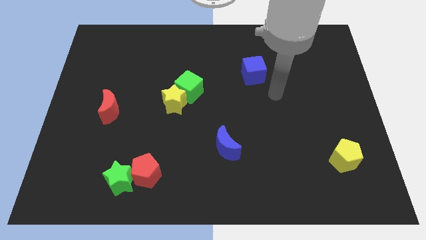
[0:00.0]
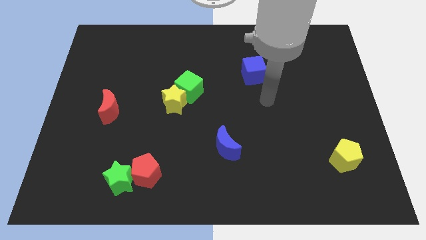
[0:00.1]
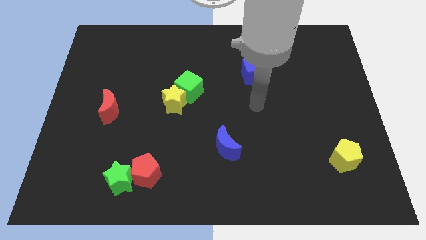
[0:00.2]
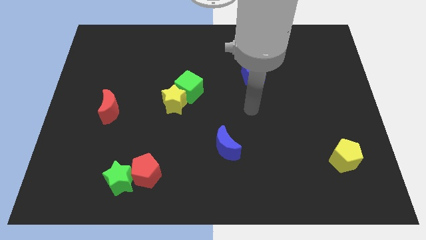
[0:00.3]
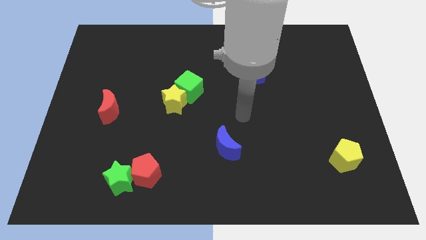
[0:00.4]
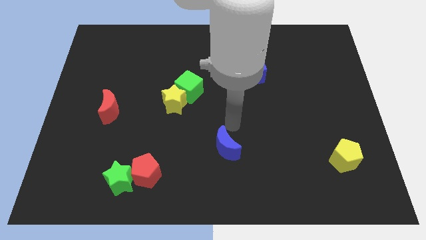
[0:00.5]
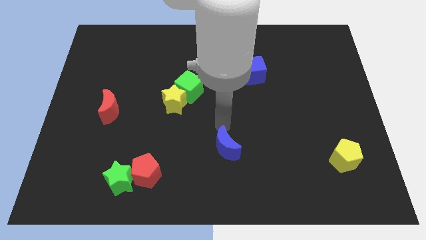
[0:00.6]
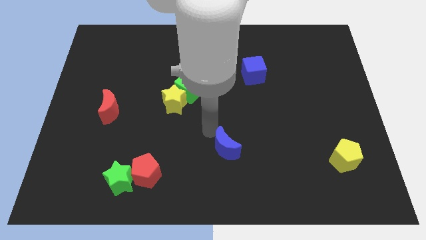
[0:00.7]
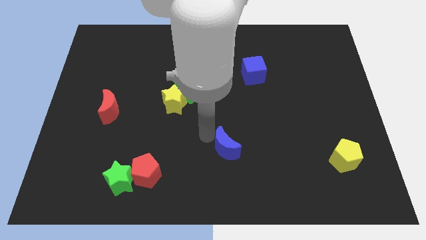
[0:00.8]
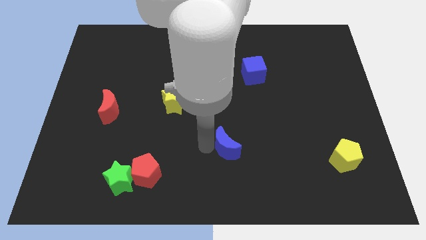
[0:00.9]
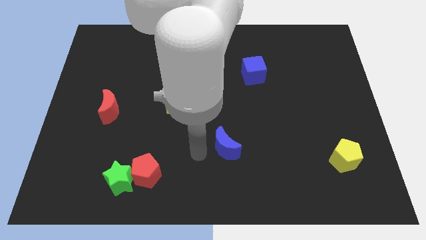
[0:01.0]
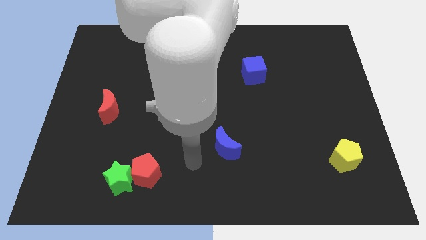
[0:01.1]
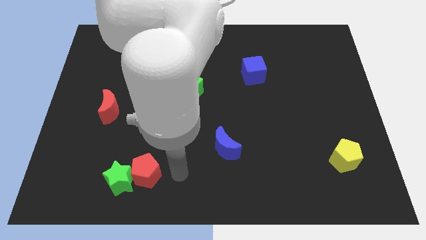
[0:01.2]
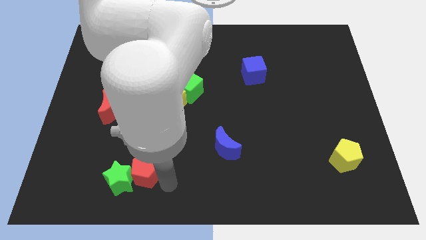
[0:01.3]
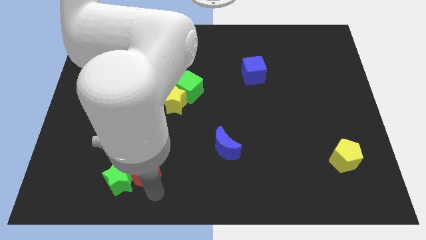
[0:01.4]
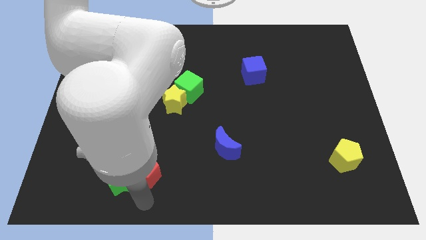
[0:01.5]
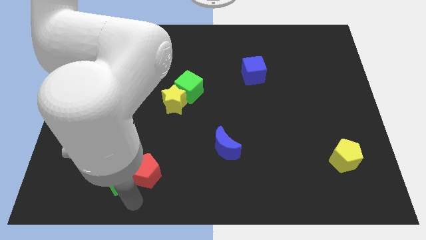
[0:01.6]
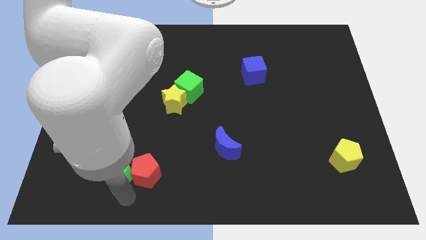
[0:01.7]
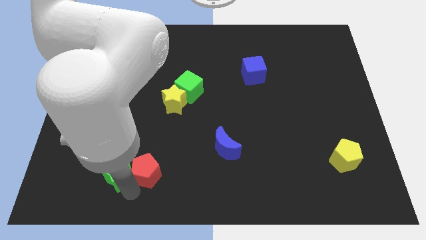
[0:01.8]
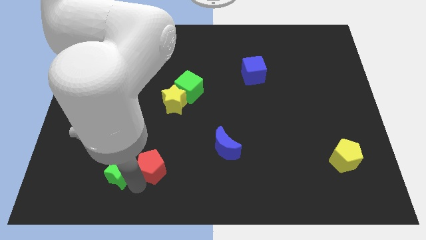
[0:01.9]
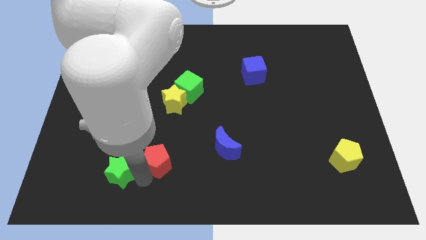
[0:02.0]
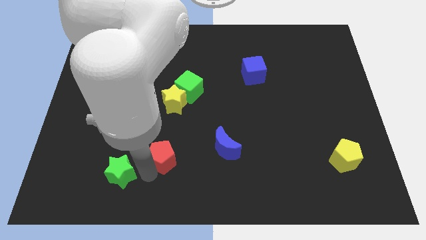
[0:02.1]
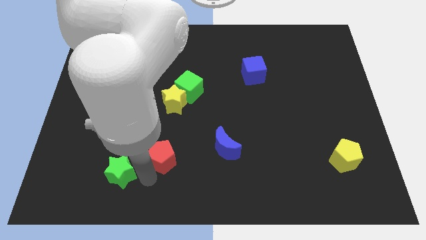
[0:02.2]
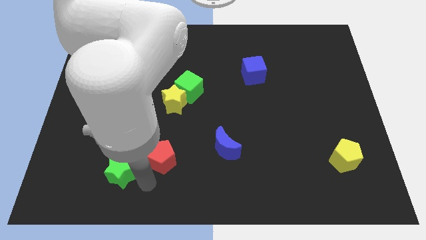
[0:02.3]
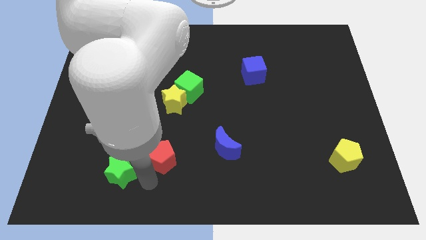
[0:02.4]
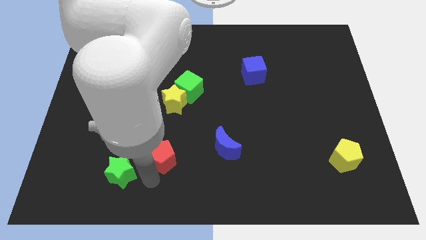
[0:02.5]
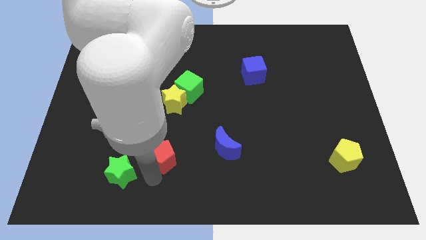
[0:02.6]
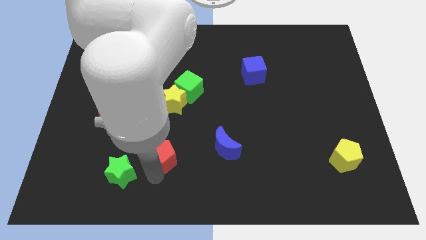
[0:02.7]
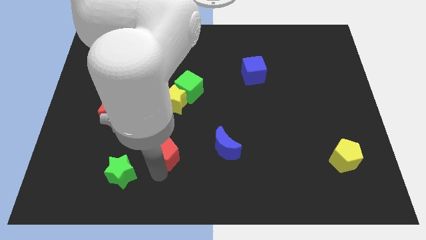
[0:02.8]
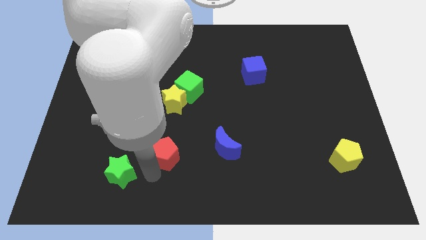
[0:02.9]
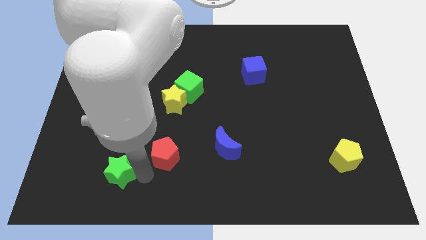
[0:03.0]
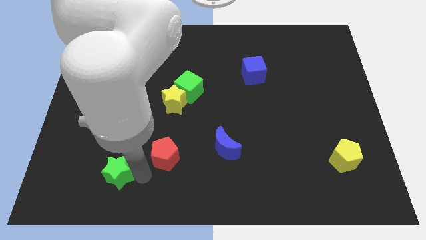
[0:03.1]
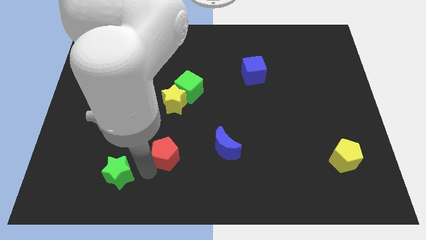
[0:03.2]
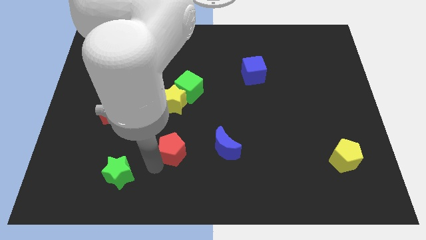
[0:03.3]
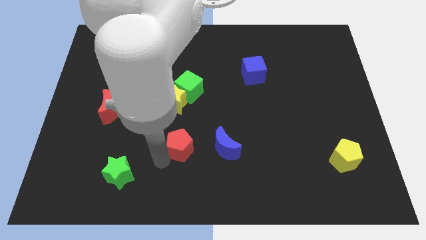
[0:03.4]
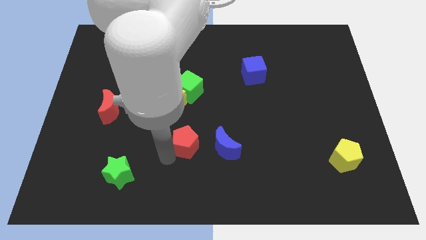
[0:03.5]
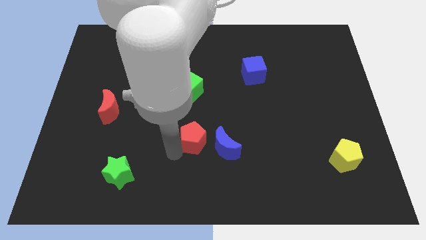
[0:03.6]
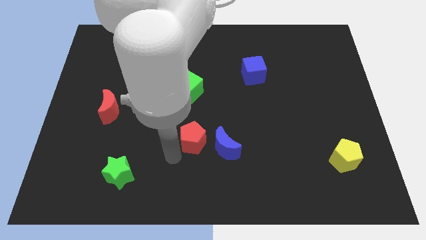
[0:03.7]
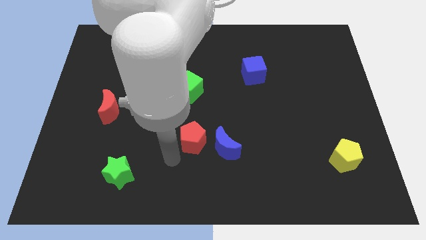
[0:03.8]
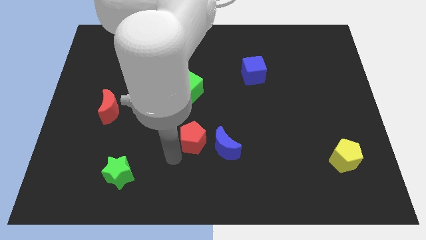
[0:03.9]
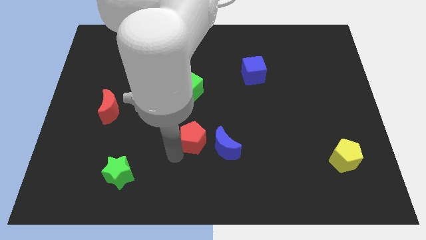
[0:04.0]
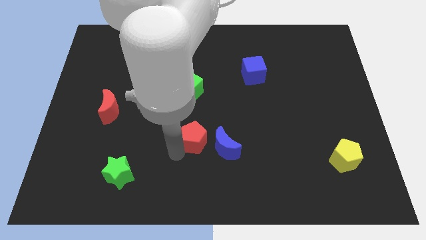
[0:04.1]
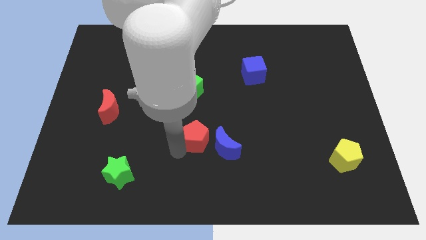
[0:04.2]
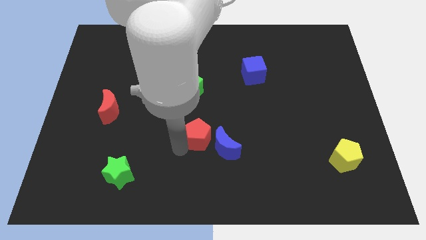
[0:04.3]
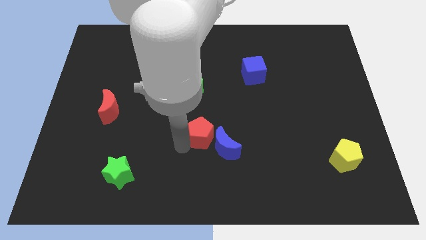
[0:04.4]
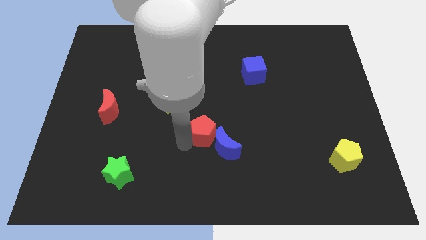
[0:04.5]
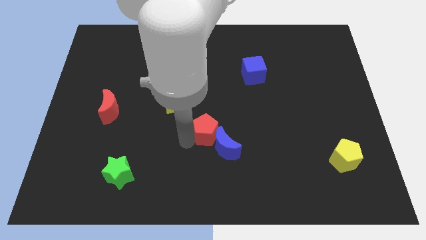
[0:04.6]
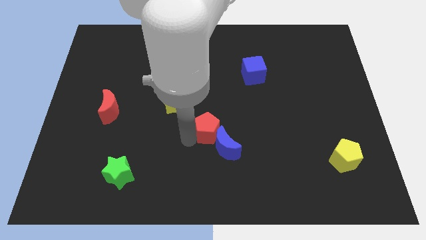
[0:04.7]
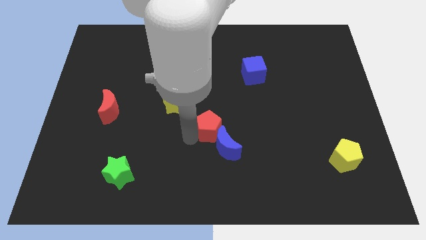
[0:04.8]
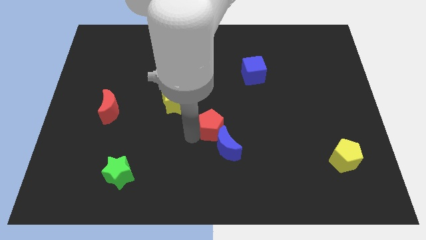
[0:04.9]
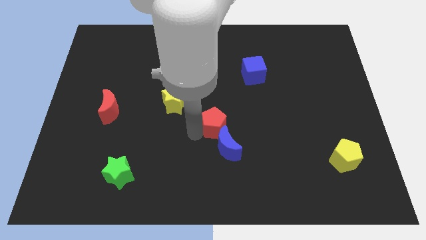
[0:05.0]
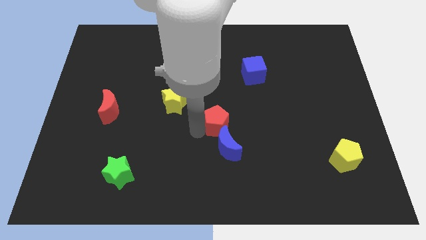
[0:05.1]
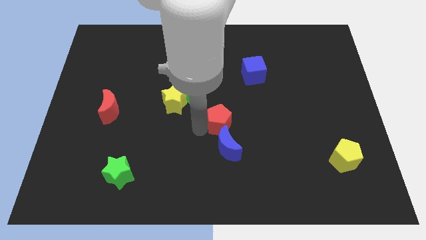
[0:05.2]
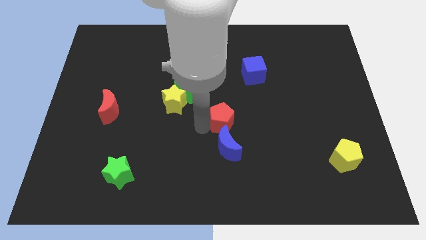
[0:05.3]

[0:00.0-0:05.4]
move the red pentagon upwards and to the right diagonally

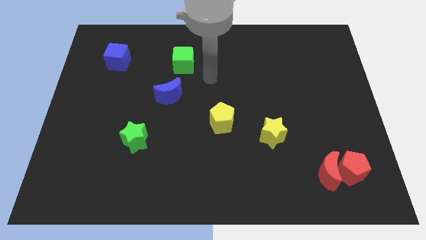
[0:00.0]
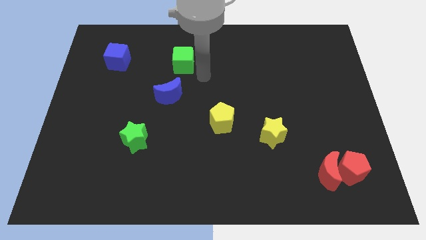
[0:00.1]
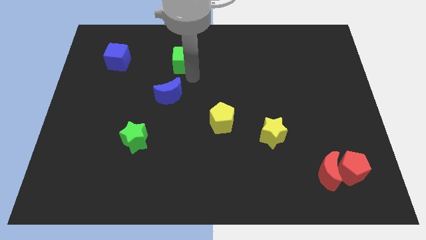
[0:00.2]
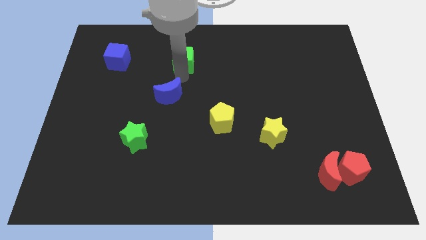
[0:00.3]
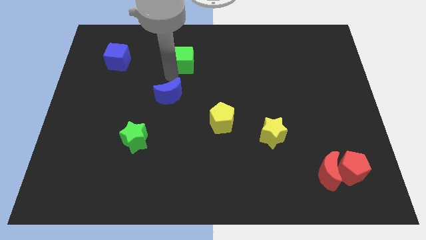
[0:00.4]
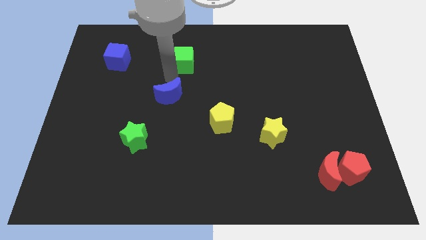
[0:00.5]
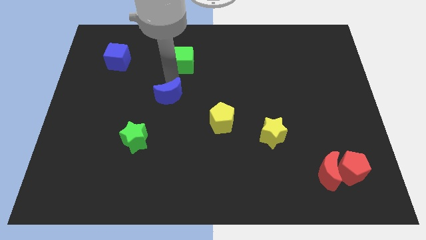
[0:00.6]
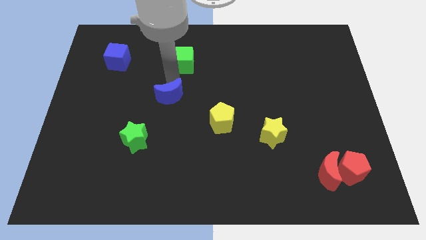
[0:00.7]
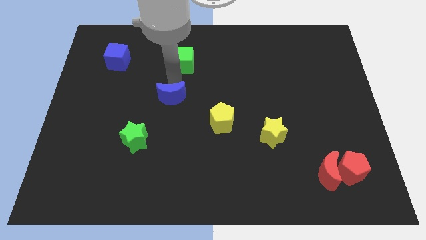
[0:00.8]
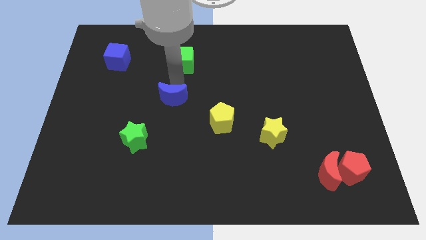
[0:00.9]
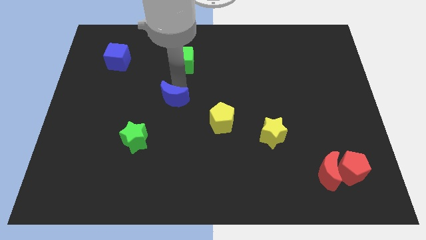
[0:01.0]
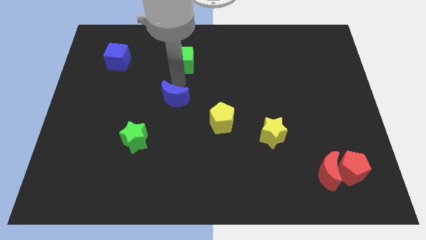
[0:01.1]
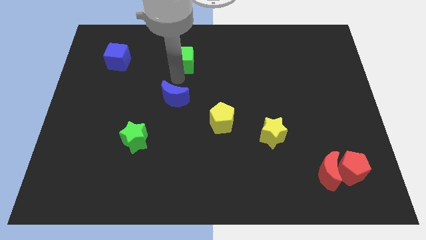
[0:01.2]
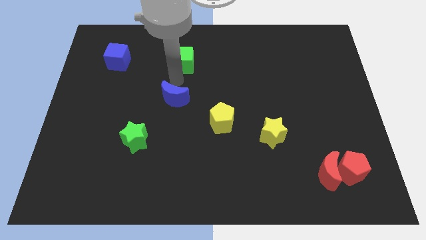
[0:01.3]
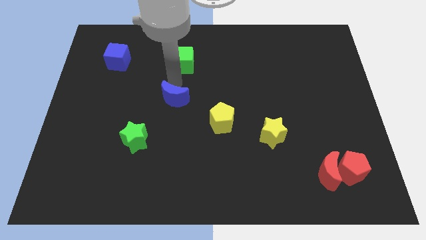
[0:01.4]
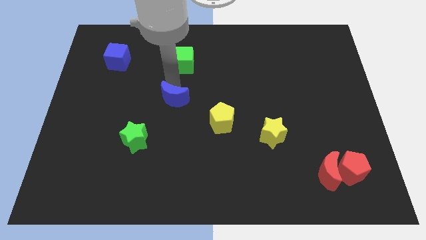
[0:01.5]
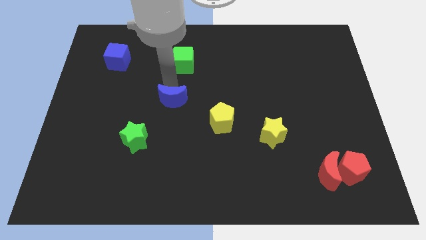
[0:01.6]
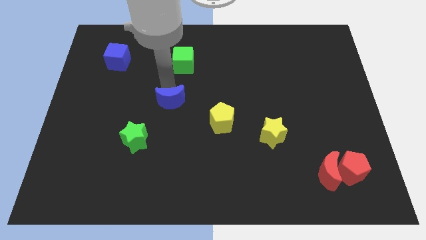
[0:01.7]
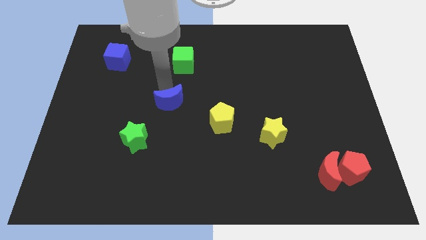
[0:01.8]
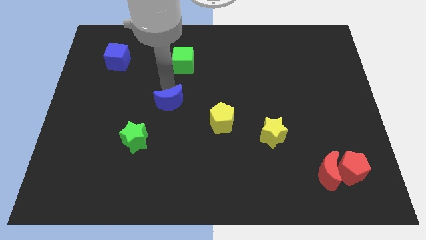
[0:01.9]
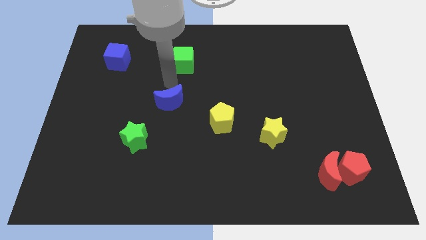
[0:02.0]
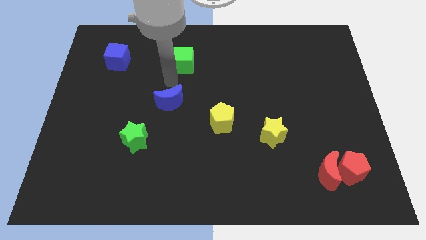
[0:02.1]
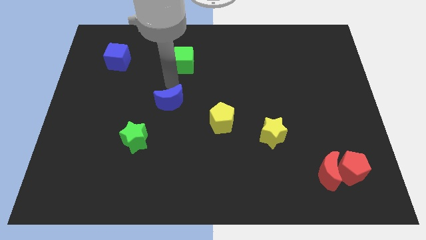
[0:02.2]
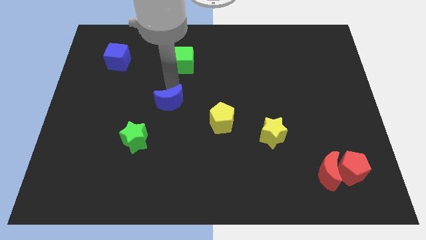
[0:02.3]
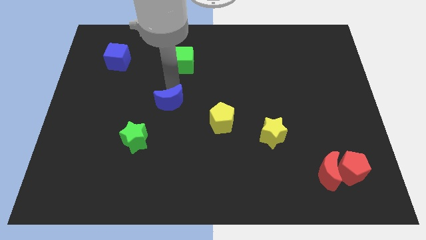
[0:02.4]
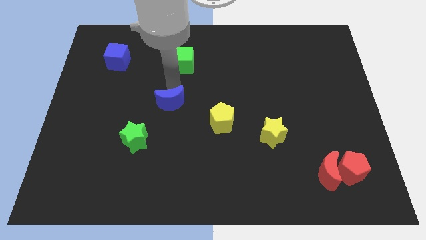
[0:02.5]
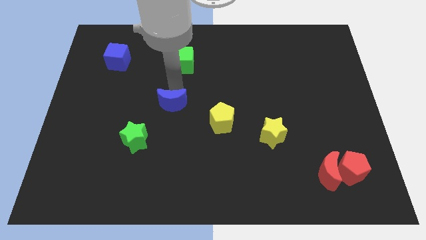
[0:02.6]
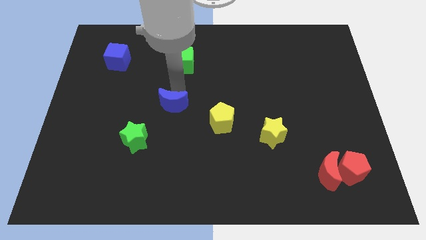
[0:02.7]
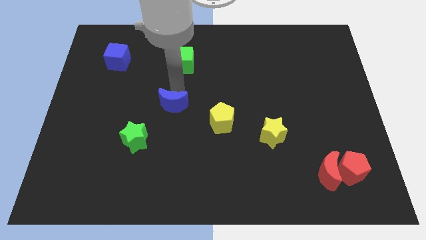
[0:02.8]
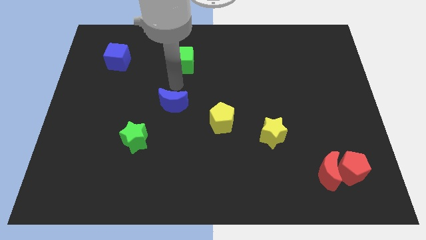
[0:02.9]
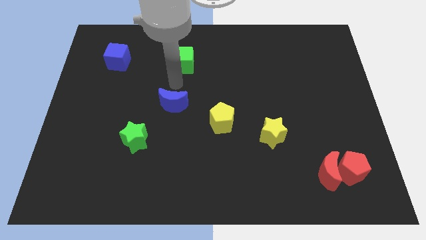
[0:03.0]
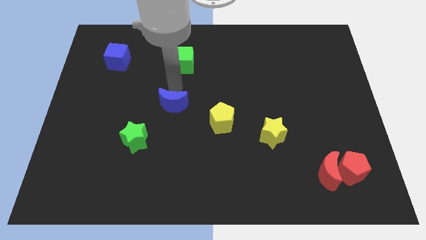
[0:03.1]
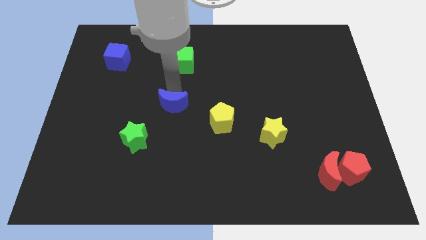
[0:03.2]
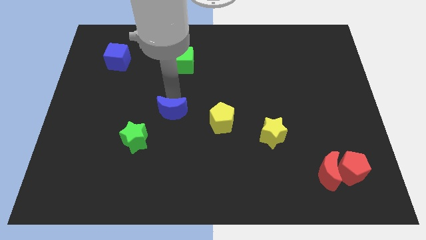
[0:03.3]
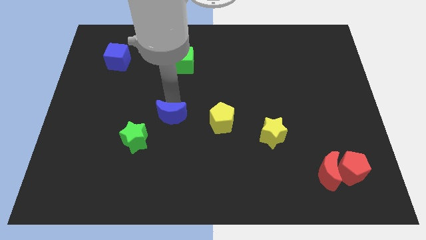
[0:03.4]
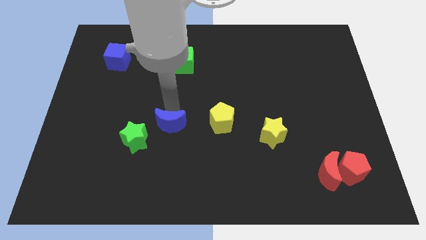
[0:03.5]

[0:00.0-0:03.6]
slide the blue moon slightly downwards
